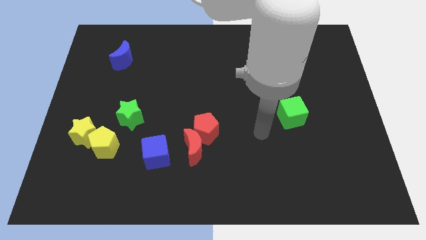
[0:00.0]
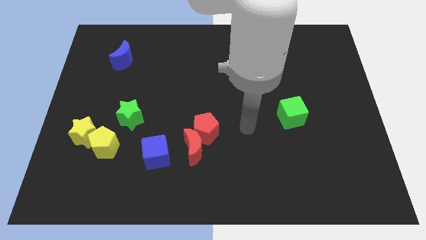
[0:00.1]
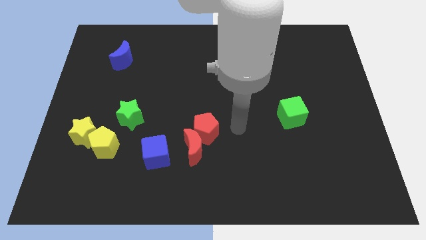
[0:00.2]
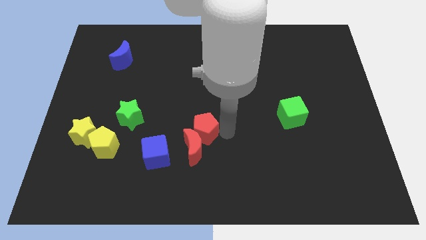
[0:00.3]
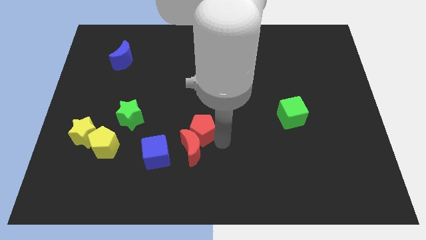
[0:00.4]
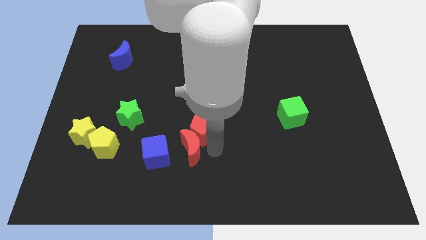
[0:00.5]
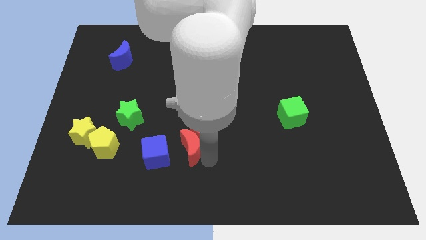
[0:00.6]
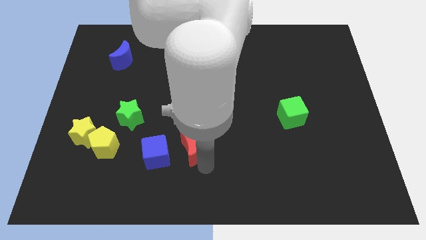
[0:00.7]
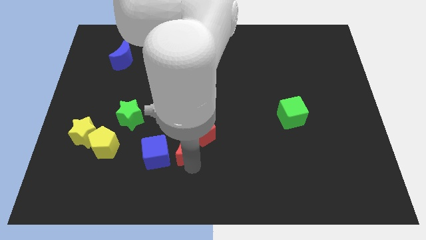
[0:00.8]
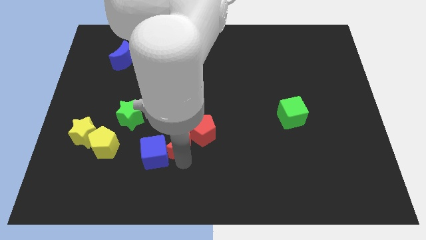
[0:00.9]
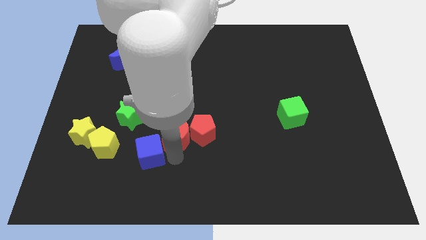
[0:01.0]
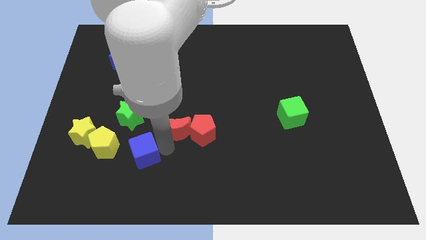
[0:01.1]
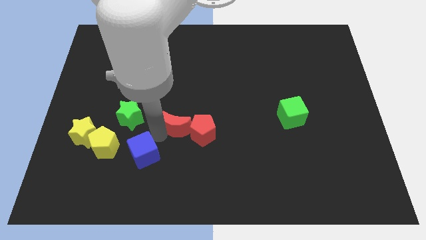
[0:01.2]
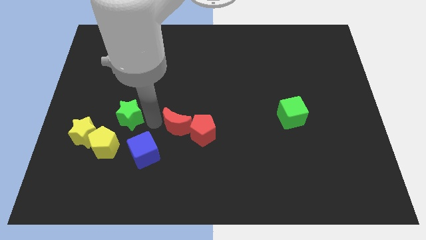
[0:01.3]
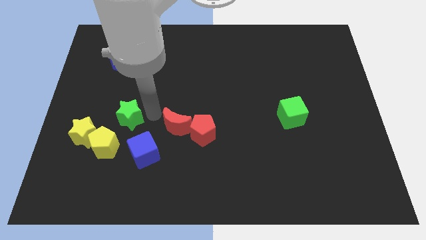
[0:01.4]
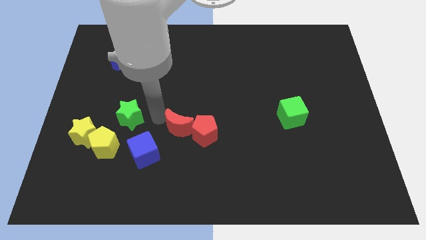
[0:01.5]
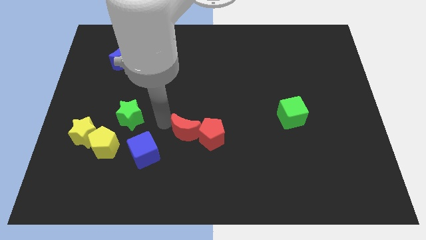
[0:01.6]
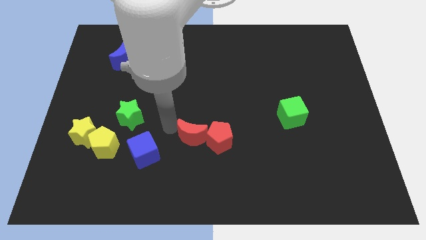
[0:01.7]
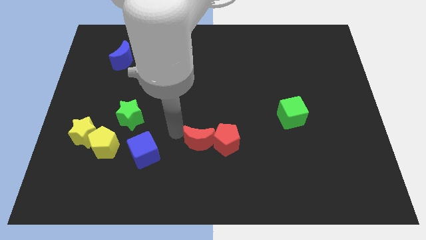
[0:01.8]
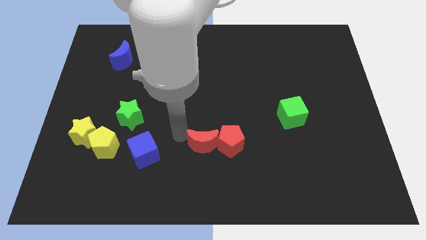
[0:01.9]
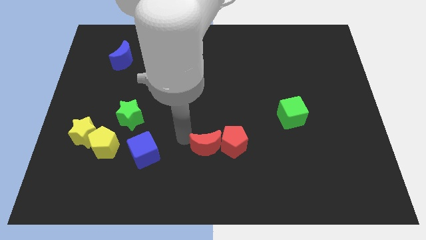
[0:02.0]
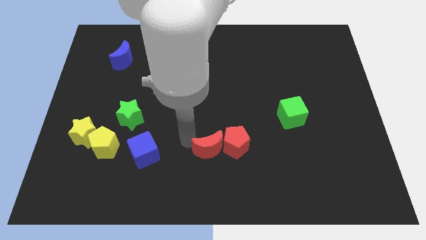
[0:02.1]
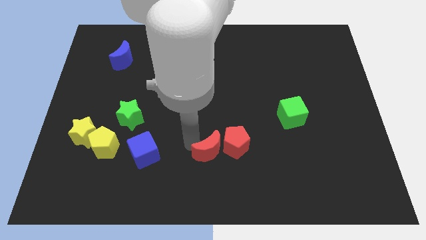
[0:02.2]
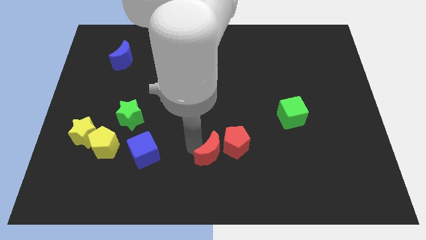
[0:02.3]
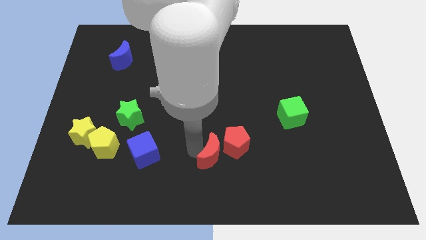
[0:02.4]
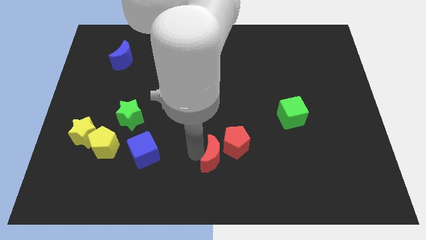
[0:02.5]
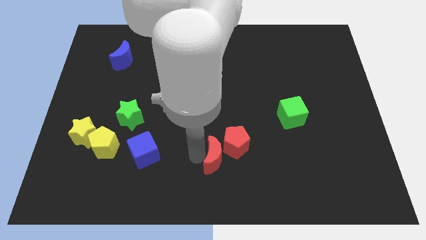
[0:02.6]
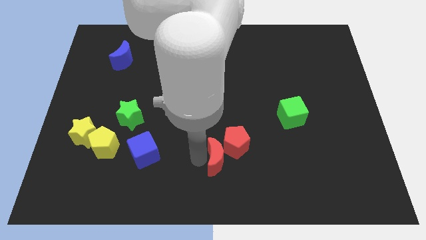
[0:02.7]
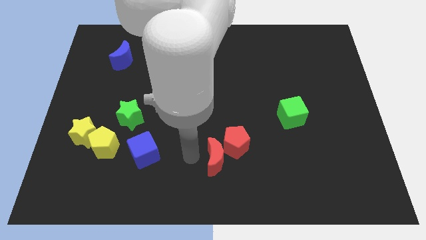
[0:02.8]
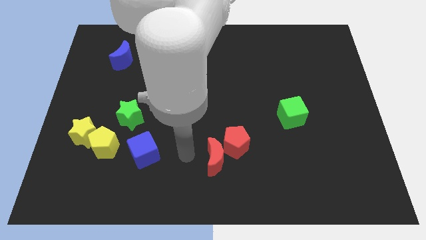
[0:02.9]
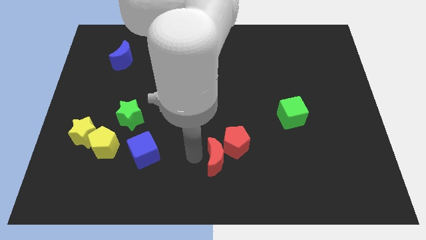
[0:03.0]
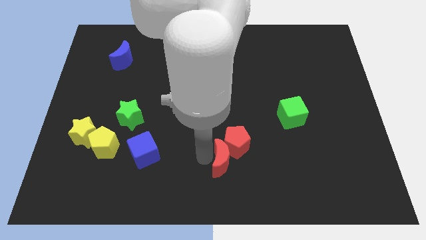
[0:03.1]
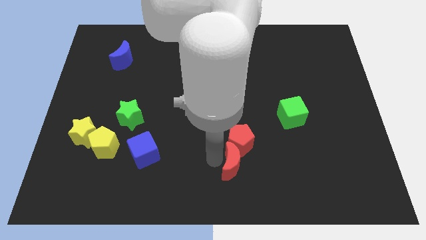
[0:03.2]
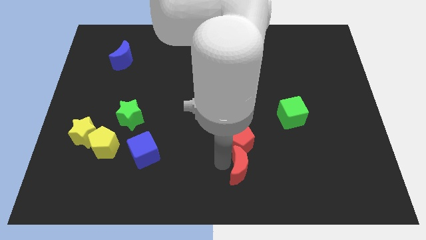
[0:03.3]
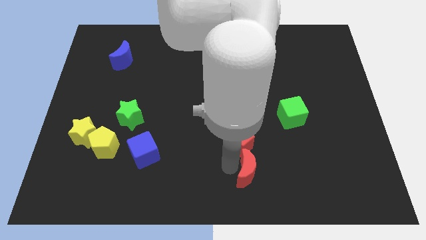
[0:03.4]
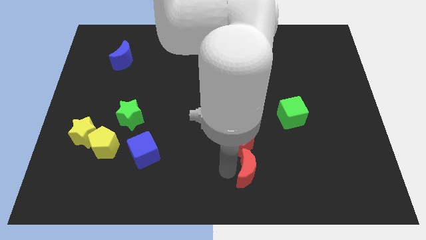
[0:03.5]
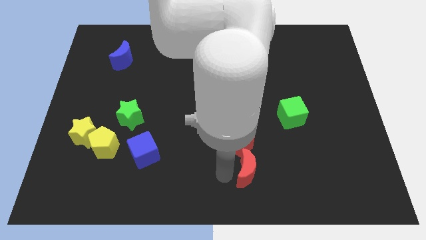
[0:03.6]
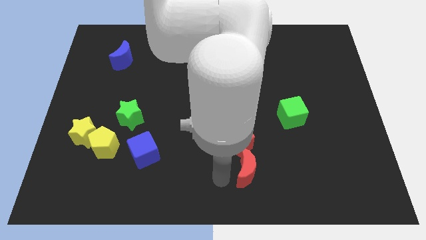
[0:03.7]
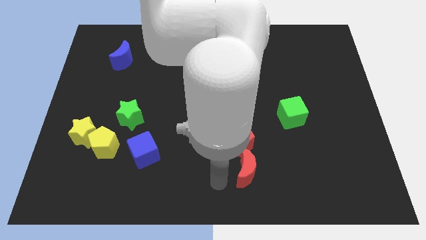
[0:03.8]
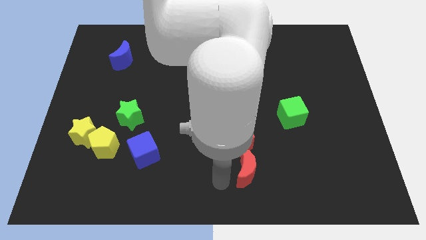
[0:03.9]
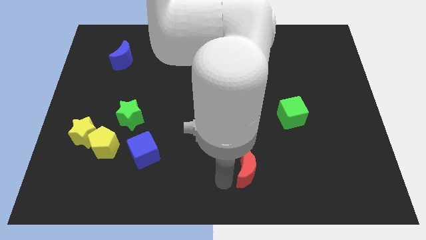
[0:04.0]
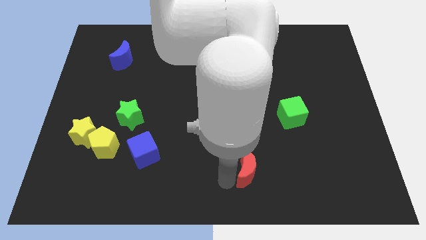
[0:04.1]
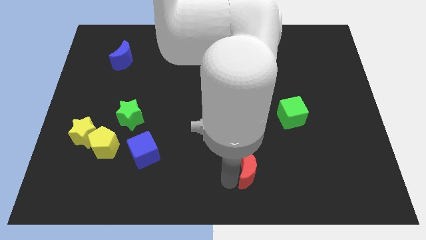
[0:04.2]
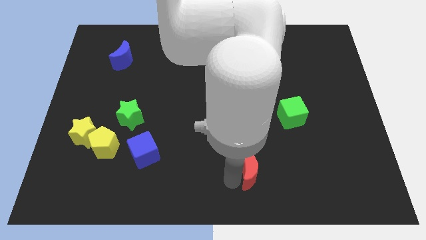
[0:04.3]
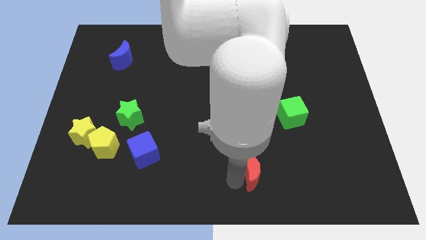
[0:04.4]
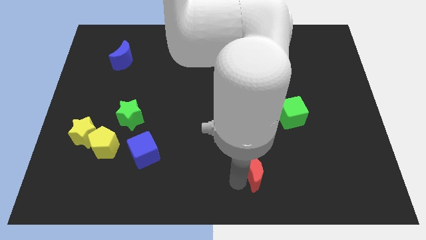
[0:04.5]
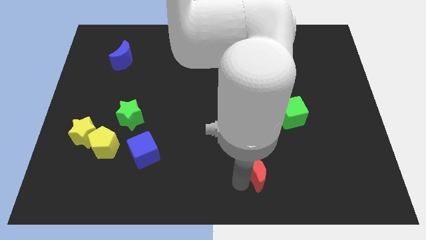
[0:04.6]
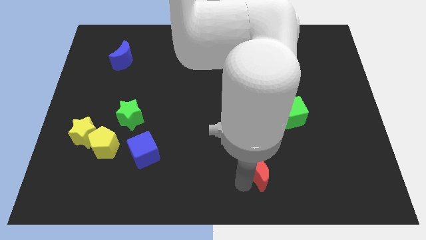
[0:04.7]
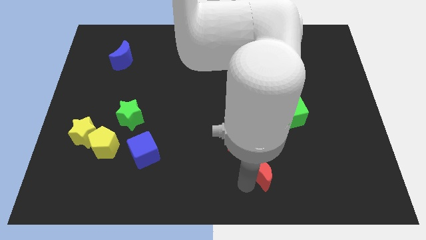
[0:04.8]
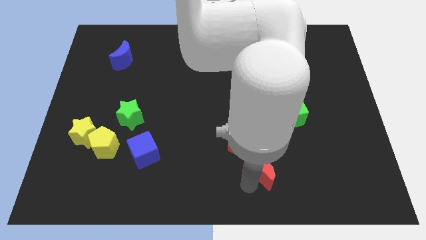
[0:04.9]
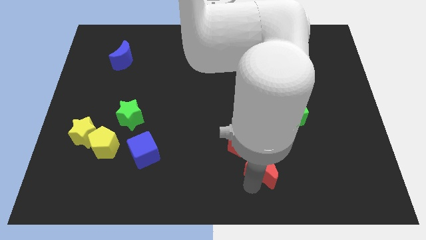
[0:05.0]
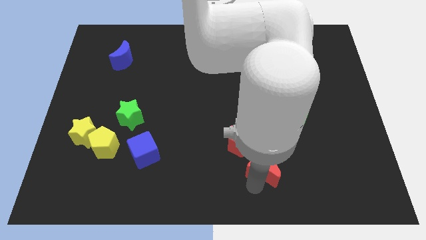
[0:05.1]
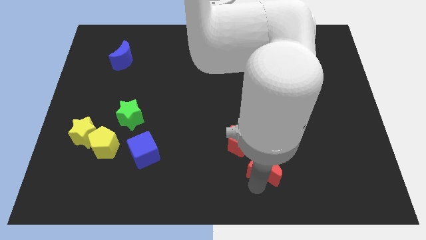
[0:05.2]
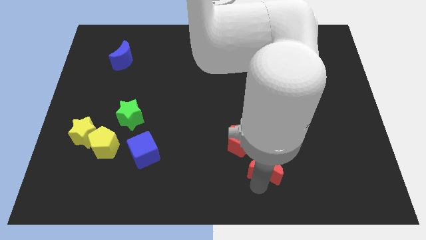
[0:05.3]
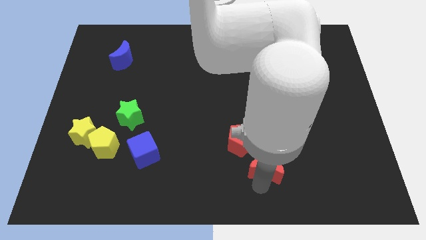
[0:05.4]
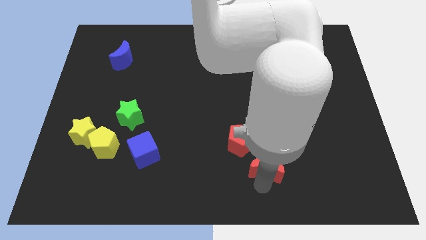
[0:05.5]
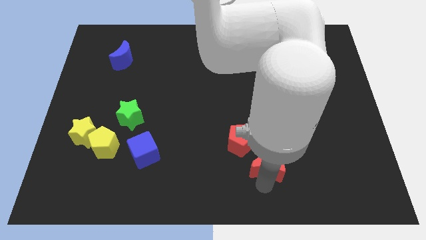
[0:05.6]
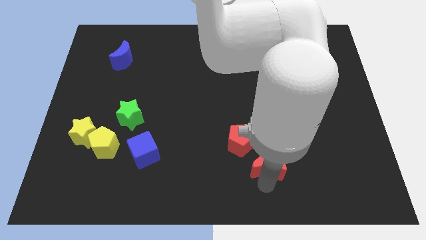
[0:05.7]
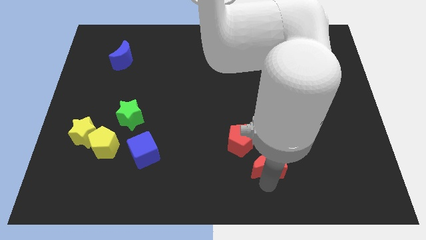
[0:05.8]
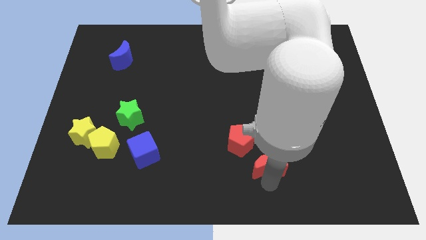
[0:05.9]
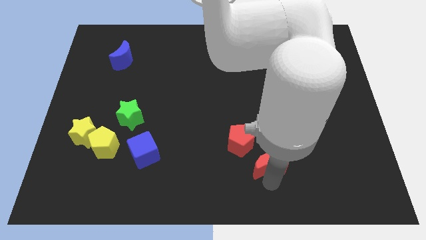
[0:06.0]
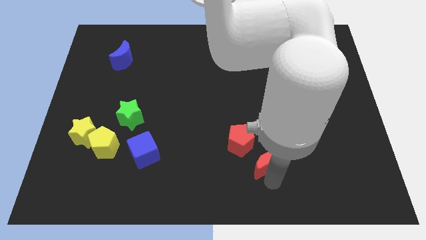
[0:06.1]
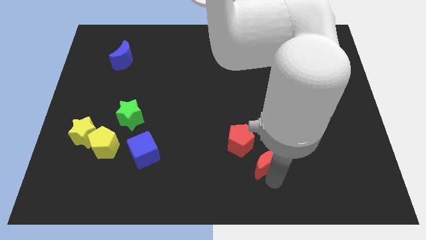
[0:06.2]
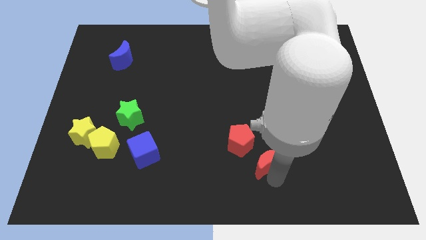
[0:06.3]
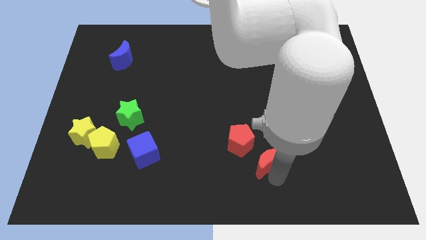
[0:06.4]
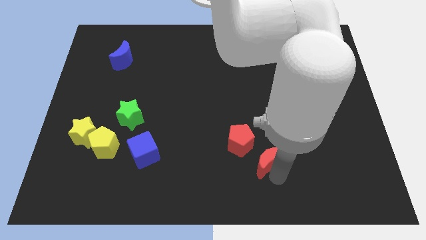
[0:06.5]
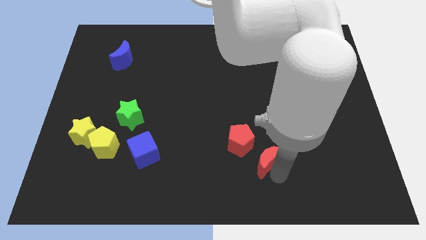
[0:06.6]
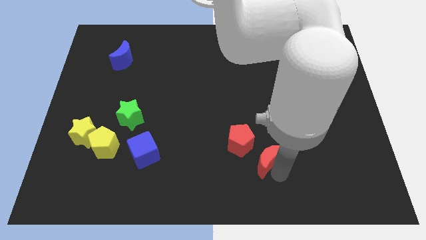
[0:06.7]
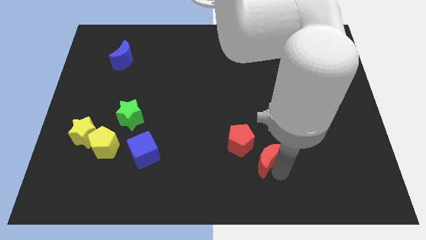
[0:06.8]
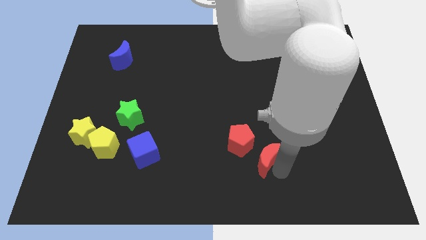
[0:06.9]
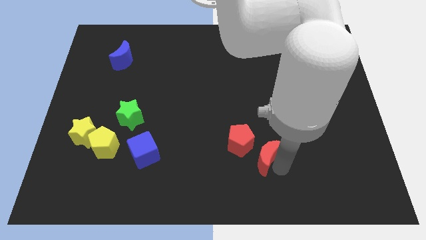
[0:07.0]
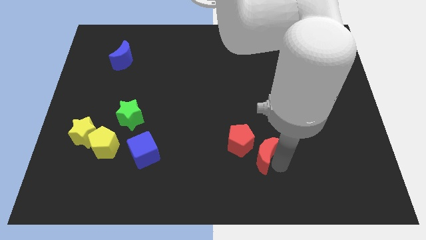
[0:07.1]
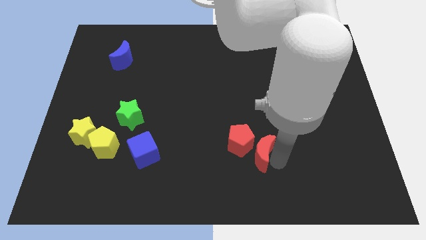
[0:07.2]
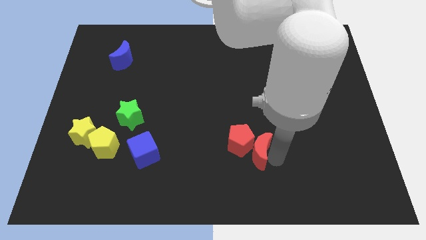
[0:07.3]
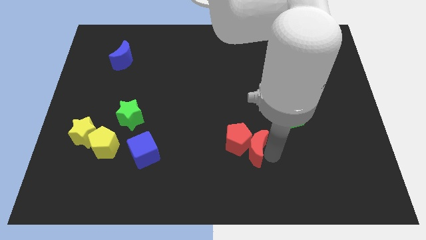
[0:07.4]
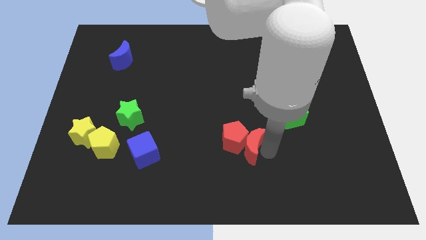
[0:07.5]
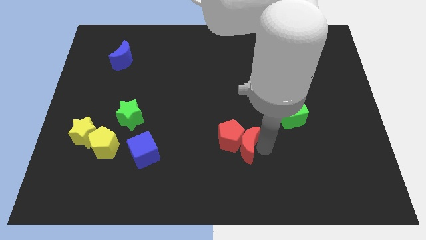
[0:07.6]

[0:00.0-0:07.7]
push the red moon diagonally down and to the right of the red pentagon
